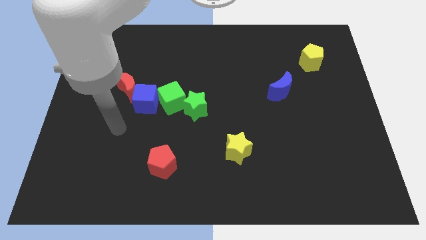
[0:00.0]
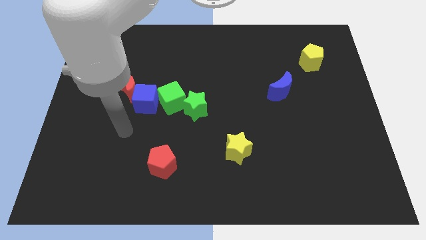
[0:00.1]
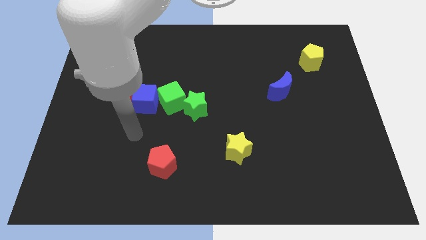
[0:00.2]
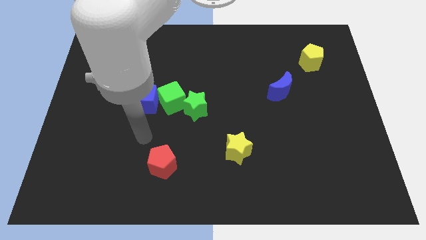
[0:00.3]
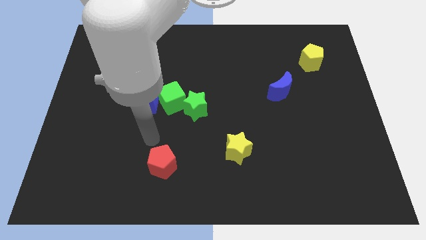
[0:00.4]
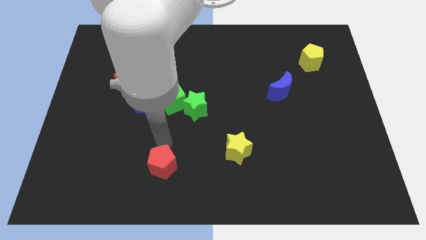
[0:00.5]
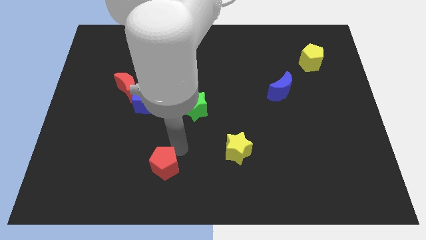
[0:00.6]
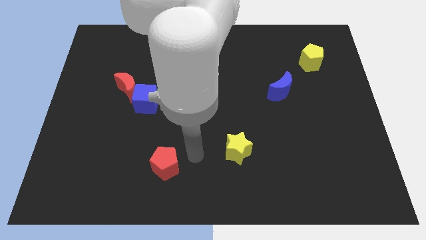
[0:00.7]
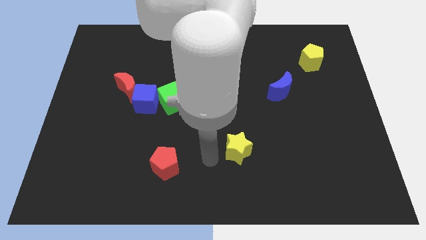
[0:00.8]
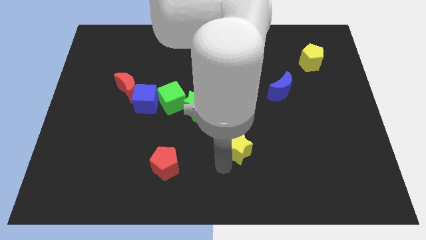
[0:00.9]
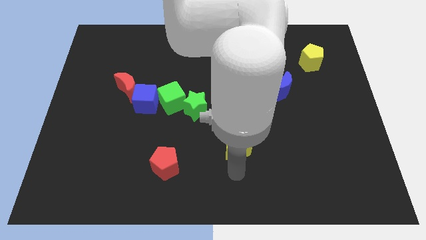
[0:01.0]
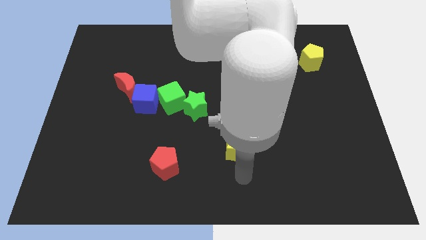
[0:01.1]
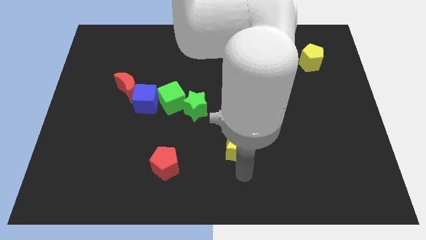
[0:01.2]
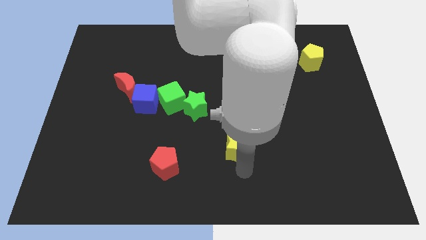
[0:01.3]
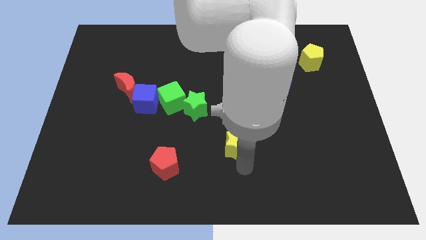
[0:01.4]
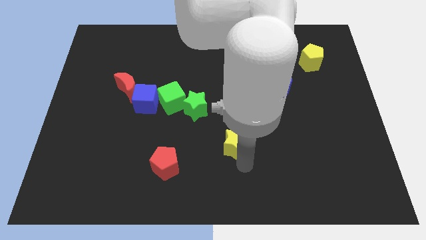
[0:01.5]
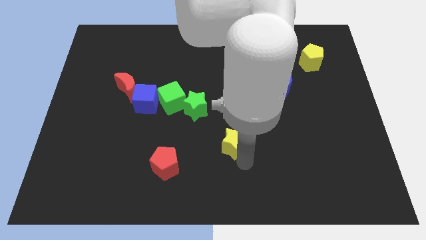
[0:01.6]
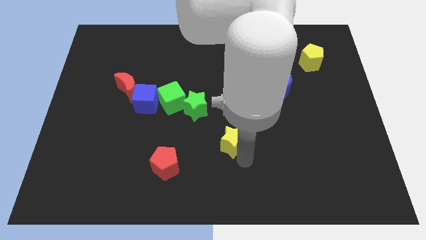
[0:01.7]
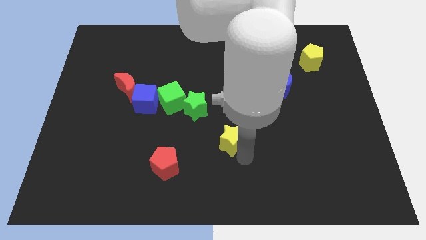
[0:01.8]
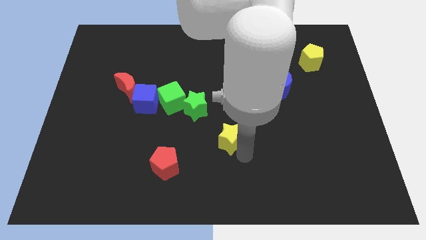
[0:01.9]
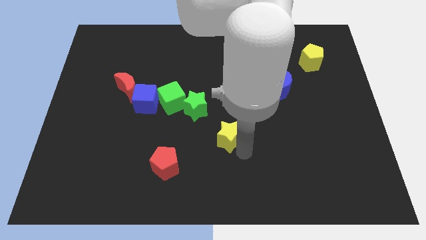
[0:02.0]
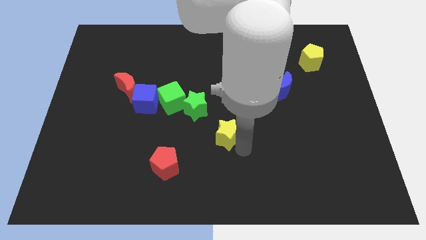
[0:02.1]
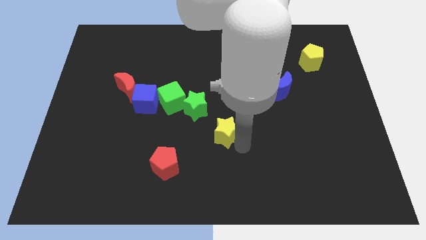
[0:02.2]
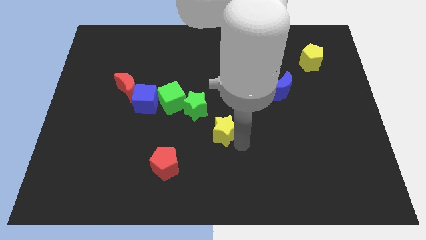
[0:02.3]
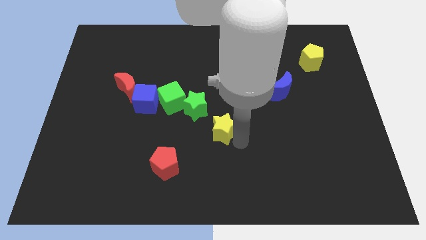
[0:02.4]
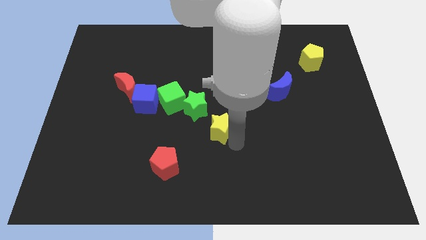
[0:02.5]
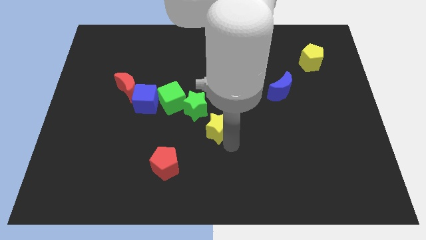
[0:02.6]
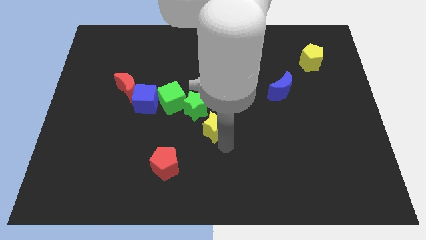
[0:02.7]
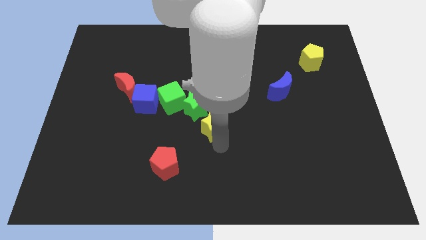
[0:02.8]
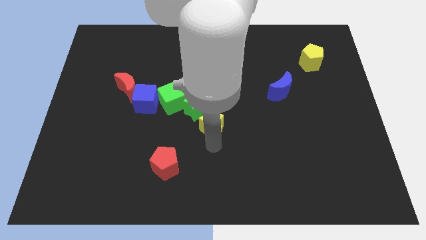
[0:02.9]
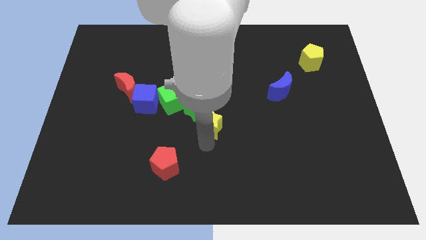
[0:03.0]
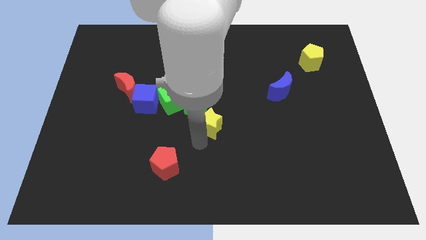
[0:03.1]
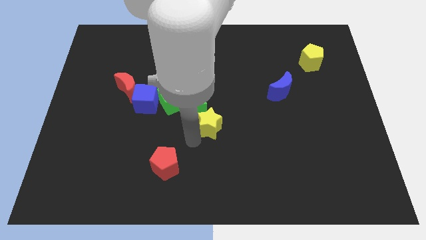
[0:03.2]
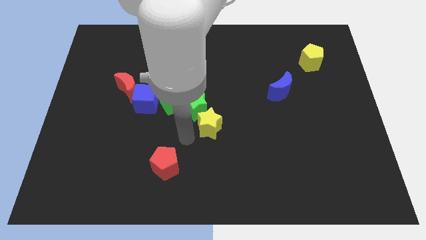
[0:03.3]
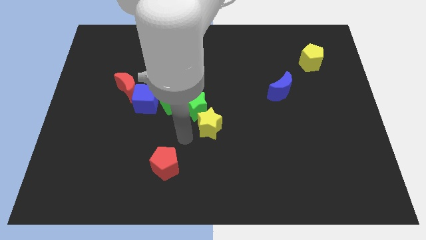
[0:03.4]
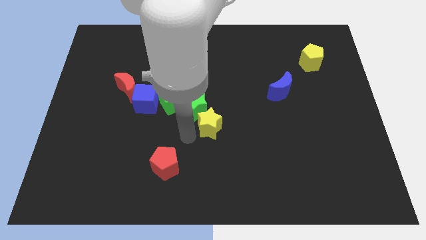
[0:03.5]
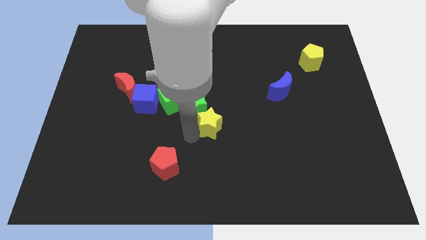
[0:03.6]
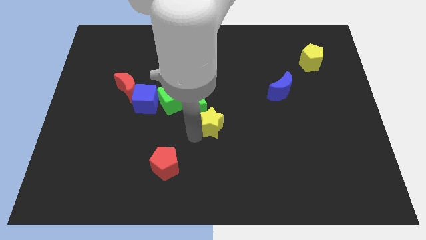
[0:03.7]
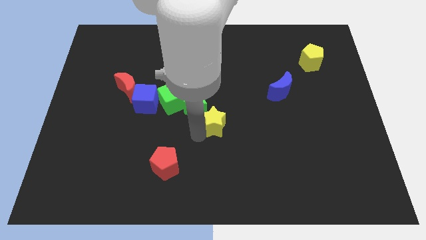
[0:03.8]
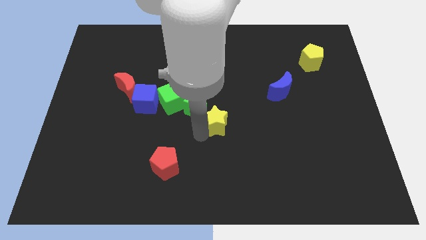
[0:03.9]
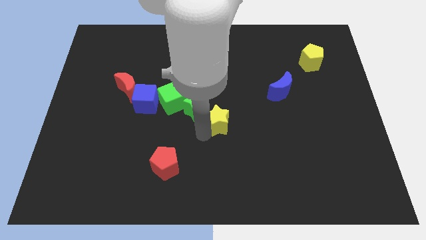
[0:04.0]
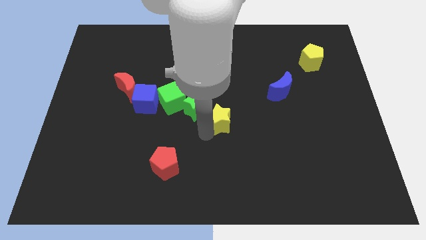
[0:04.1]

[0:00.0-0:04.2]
move the yellow star upwards somewhat

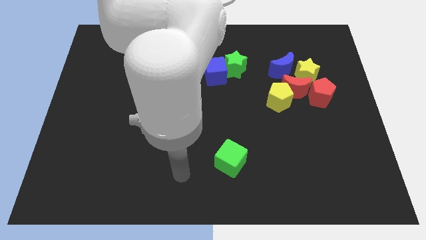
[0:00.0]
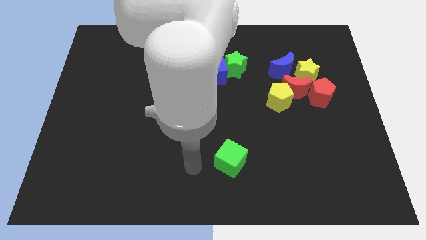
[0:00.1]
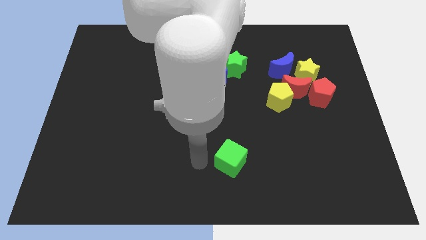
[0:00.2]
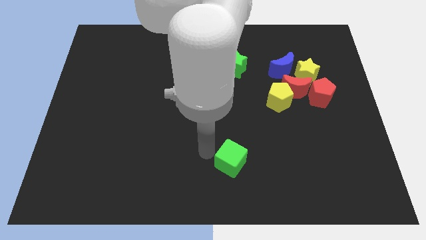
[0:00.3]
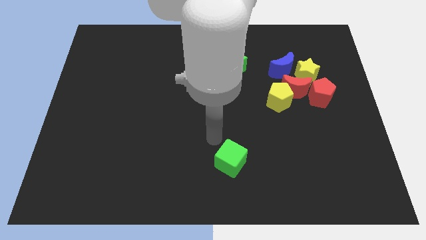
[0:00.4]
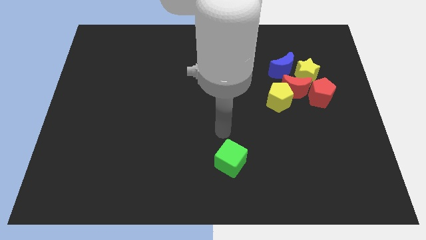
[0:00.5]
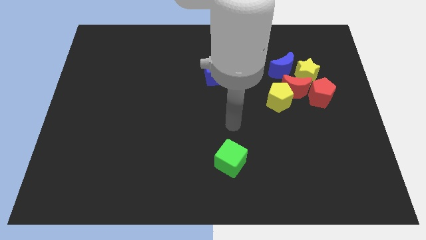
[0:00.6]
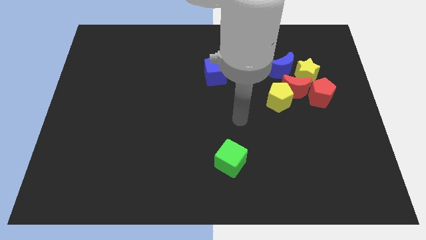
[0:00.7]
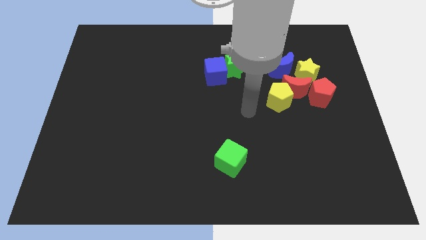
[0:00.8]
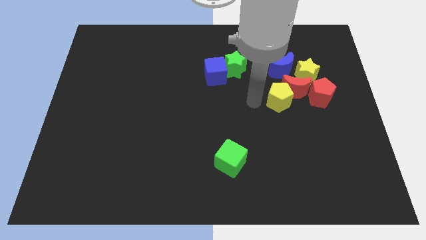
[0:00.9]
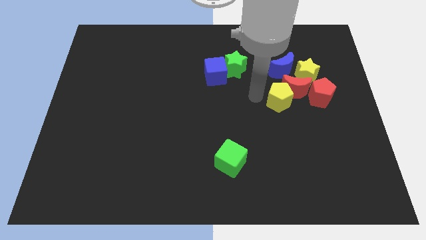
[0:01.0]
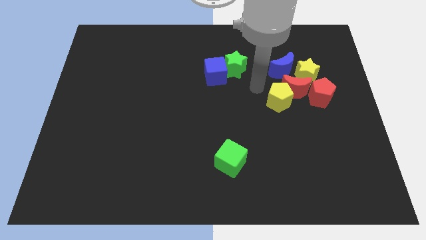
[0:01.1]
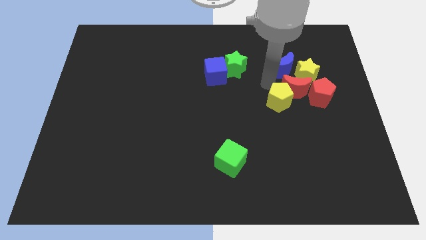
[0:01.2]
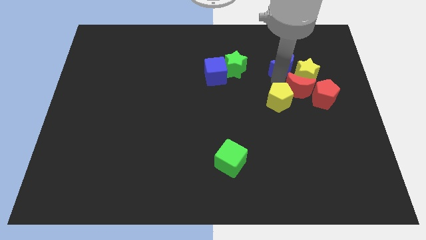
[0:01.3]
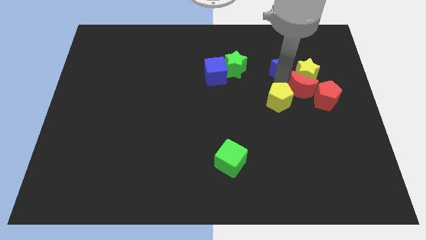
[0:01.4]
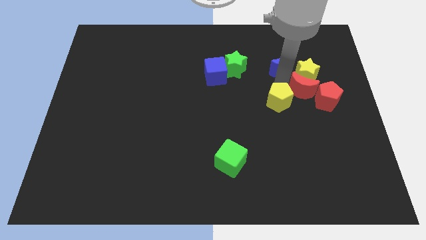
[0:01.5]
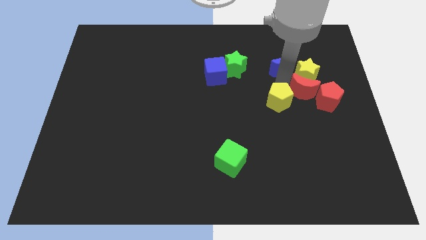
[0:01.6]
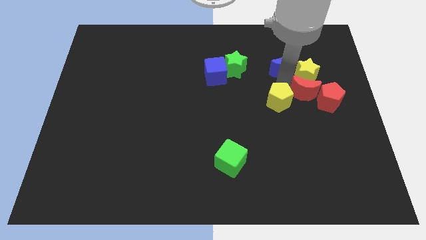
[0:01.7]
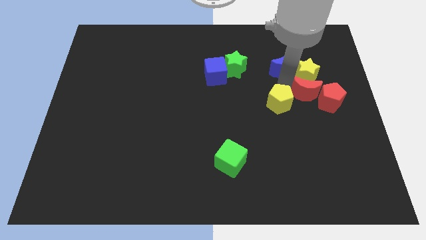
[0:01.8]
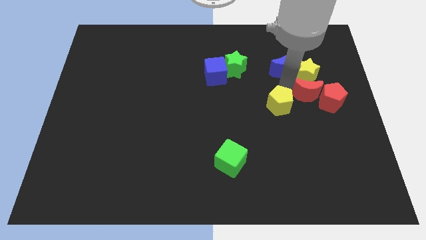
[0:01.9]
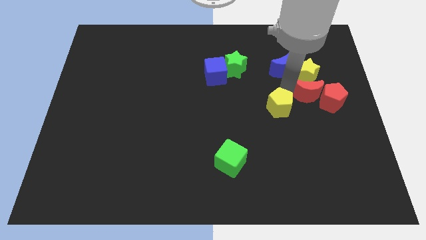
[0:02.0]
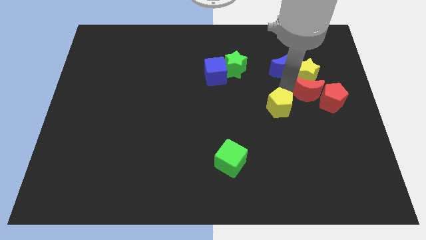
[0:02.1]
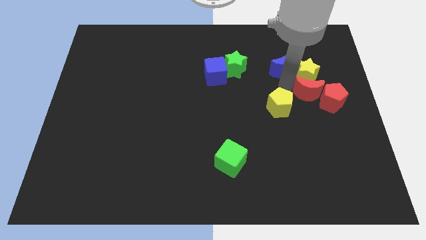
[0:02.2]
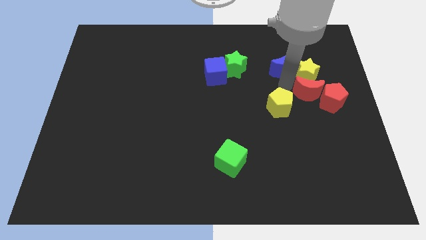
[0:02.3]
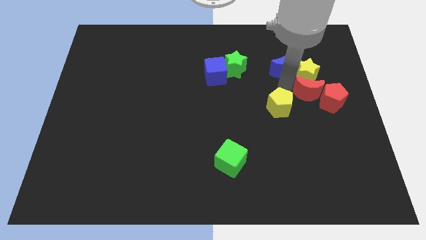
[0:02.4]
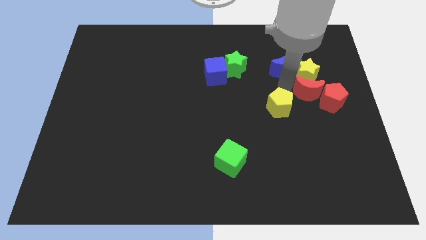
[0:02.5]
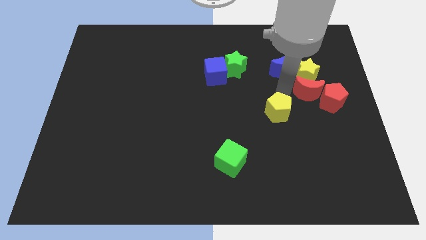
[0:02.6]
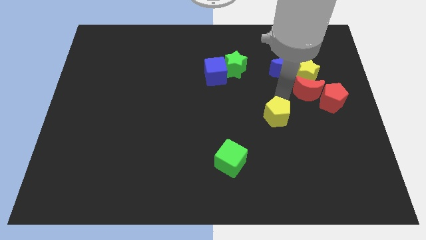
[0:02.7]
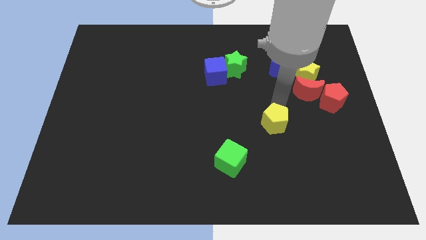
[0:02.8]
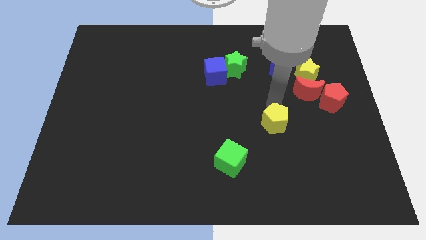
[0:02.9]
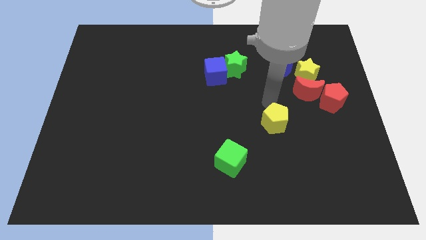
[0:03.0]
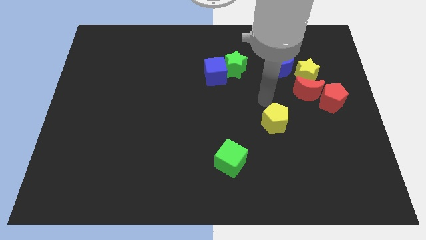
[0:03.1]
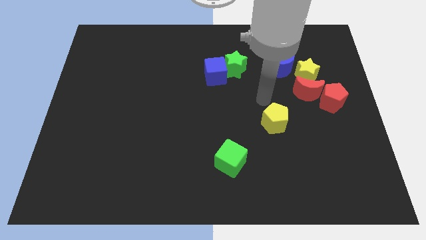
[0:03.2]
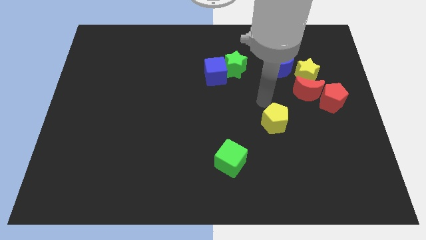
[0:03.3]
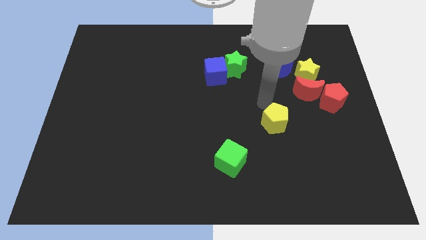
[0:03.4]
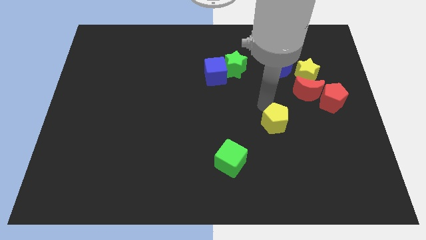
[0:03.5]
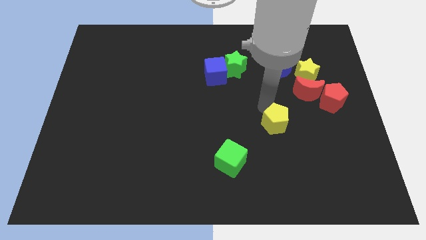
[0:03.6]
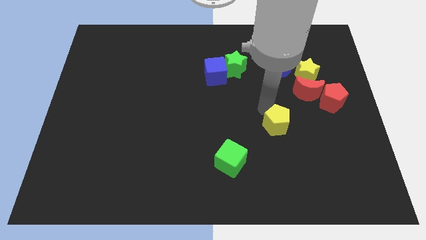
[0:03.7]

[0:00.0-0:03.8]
slide the yellow pentagon slightly downwards

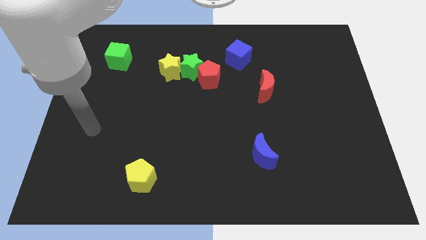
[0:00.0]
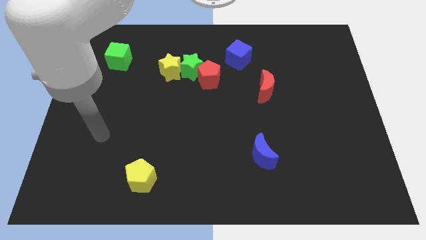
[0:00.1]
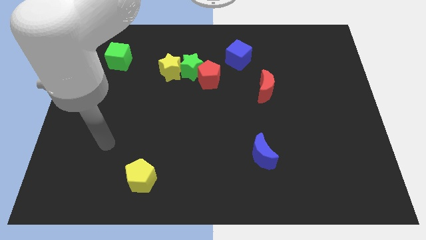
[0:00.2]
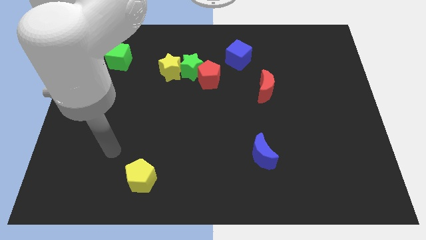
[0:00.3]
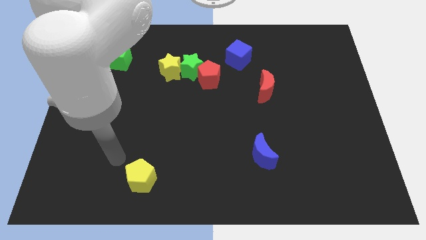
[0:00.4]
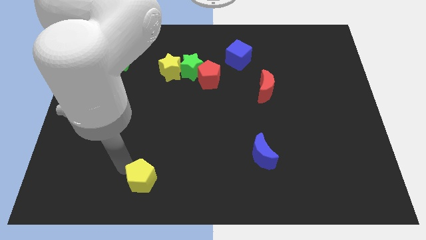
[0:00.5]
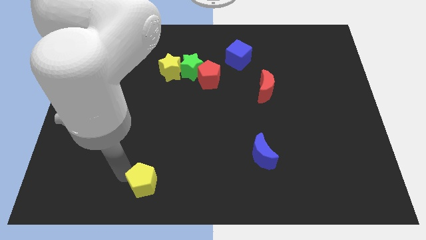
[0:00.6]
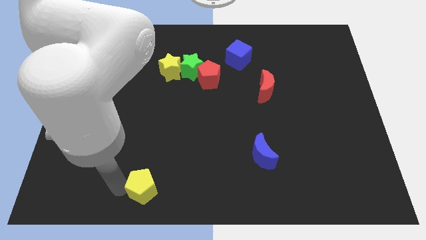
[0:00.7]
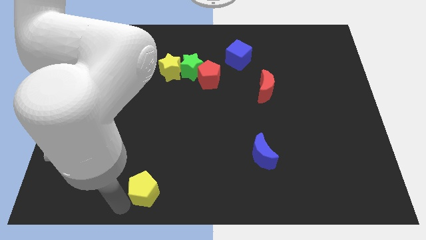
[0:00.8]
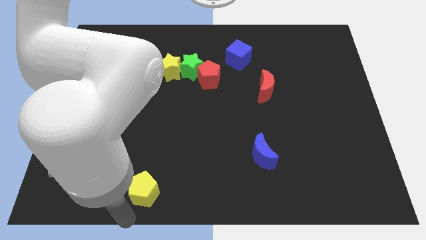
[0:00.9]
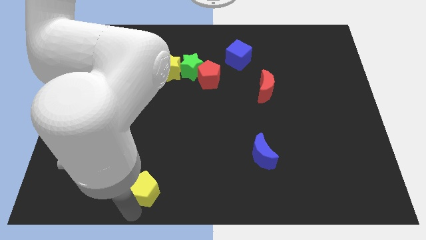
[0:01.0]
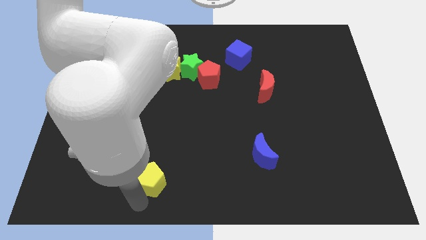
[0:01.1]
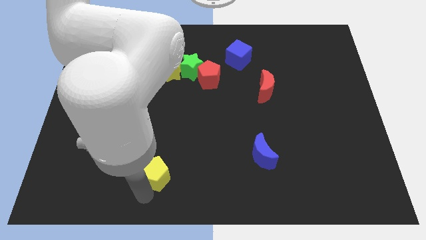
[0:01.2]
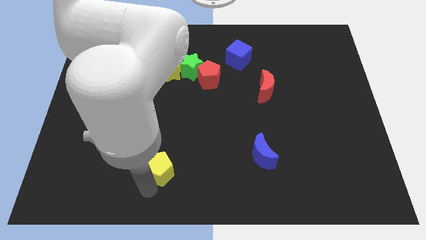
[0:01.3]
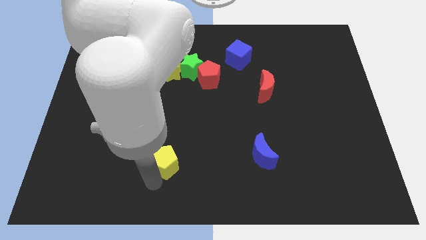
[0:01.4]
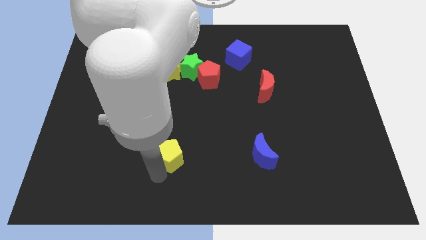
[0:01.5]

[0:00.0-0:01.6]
slightly slide the yellow pentagon up and right diagonally
